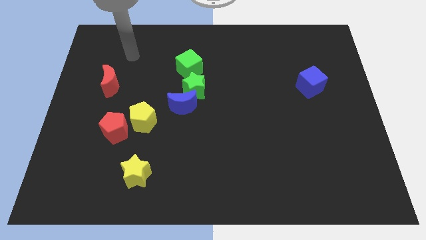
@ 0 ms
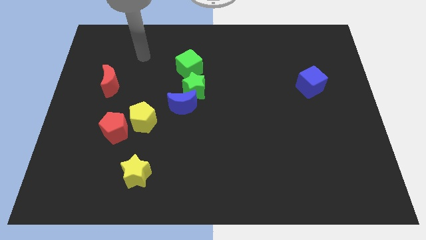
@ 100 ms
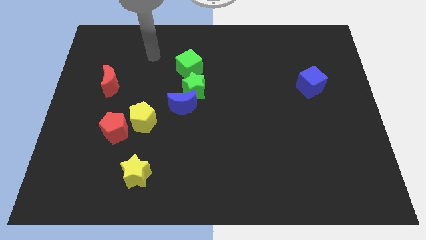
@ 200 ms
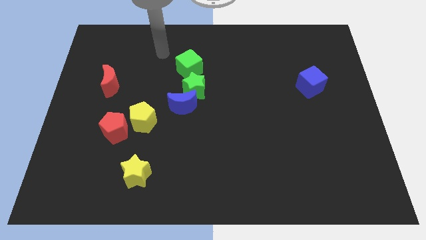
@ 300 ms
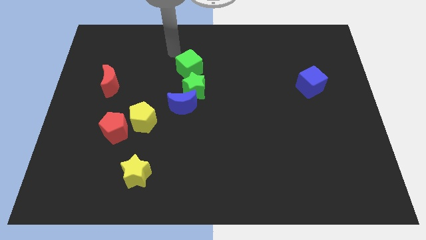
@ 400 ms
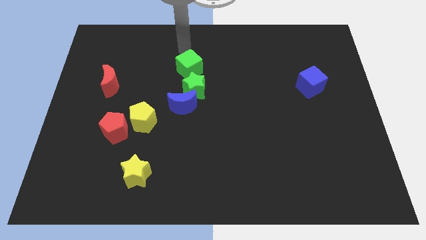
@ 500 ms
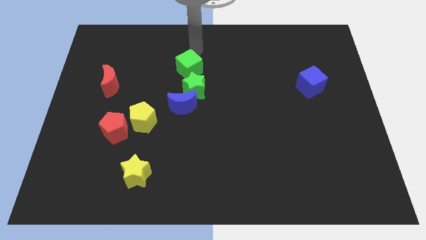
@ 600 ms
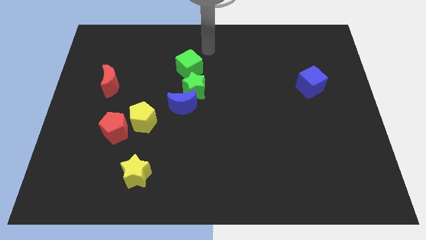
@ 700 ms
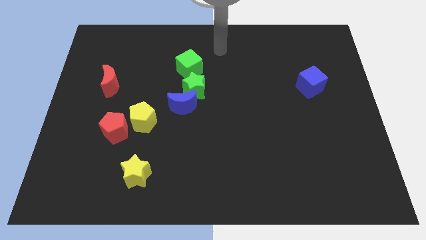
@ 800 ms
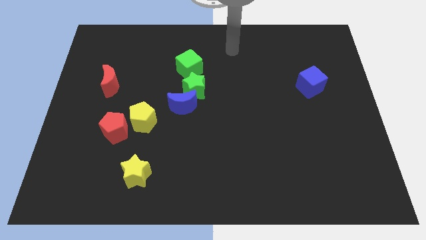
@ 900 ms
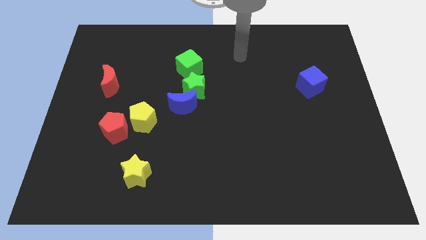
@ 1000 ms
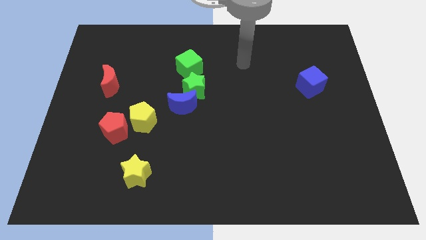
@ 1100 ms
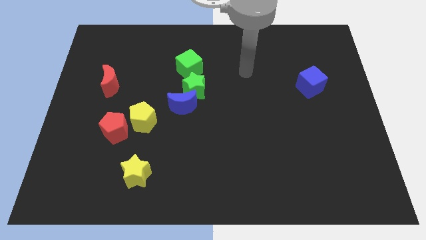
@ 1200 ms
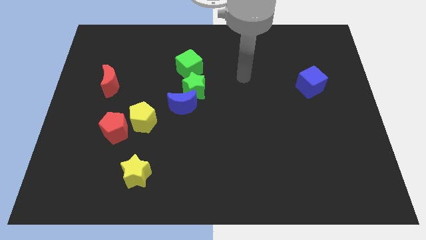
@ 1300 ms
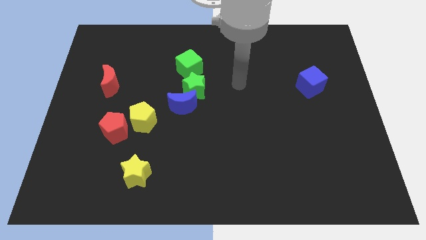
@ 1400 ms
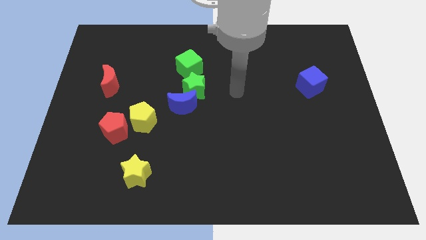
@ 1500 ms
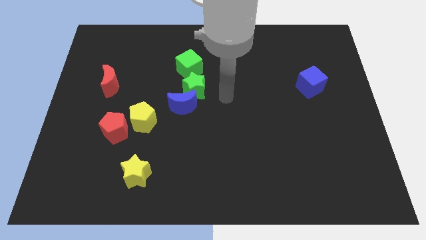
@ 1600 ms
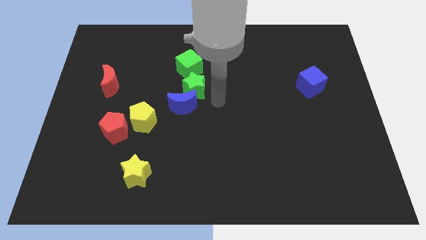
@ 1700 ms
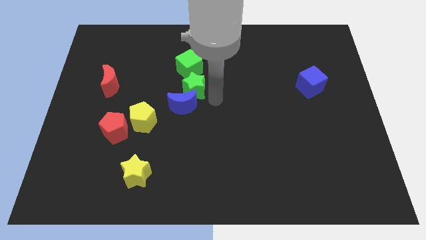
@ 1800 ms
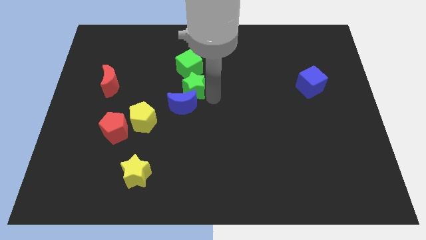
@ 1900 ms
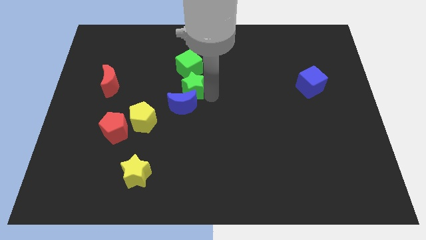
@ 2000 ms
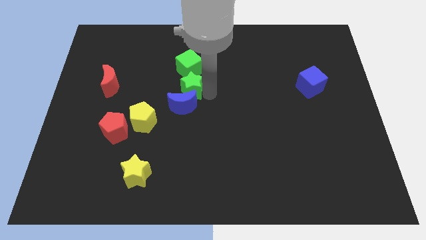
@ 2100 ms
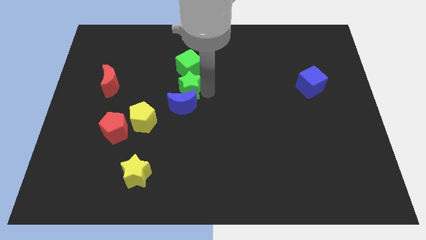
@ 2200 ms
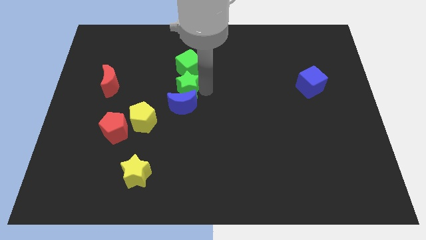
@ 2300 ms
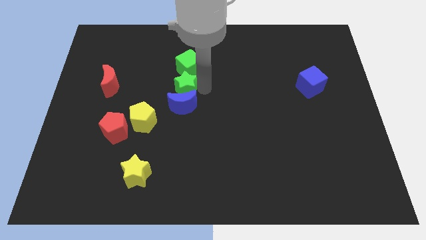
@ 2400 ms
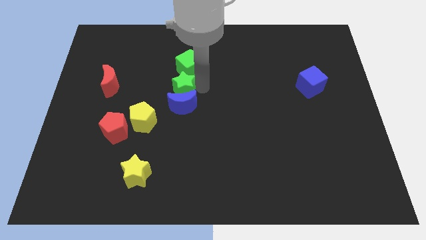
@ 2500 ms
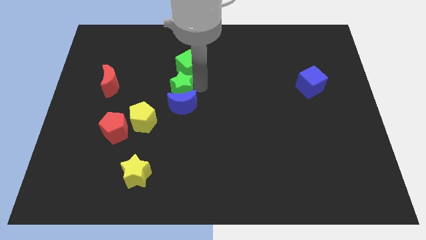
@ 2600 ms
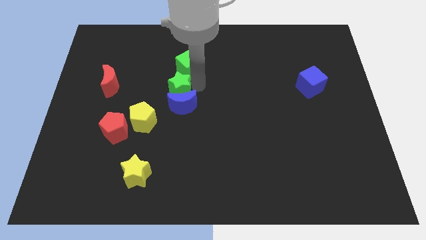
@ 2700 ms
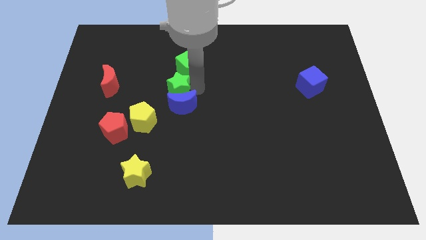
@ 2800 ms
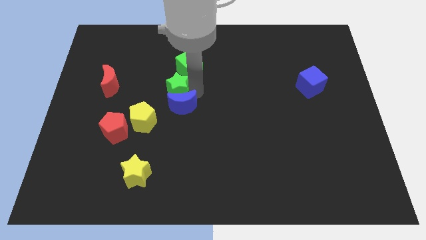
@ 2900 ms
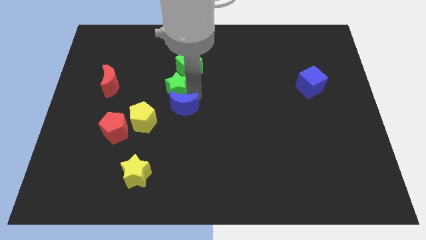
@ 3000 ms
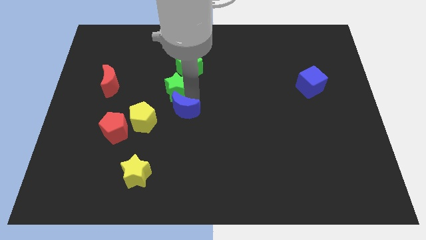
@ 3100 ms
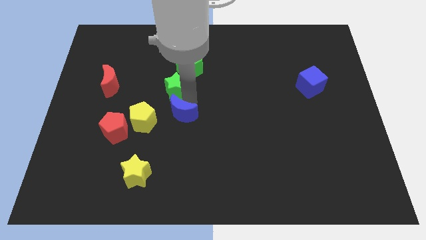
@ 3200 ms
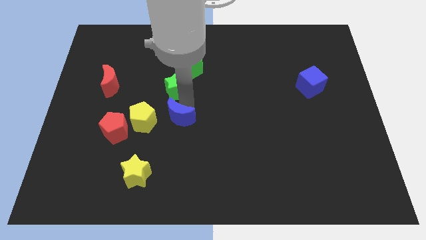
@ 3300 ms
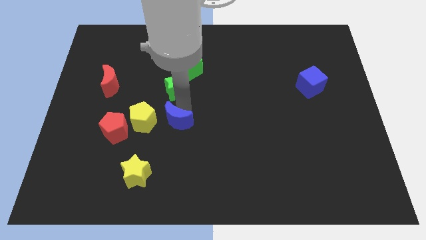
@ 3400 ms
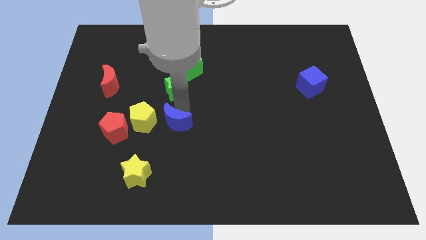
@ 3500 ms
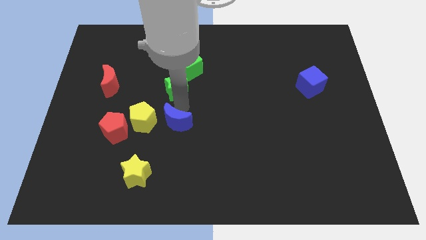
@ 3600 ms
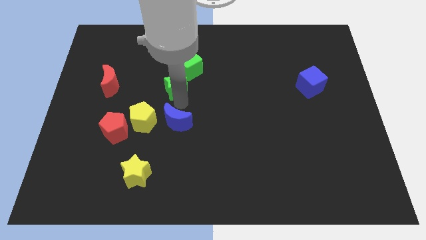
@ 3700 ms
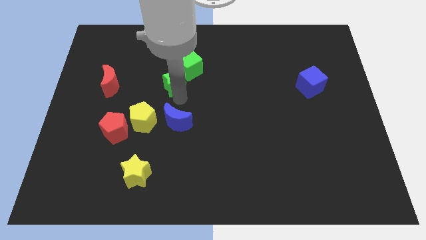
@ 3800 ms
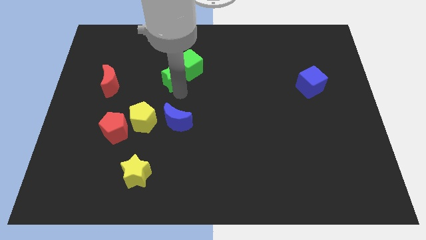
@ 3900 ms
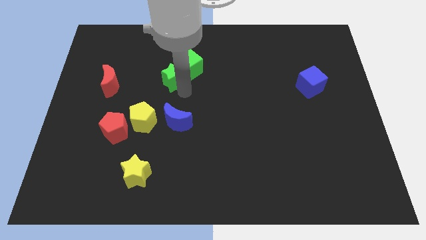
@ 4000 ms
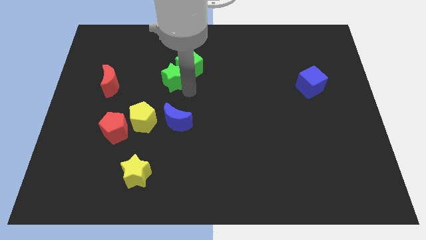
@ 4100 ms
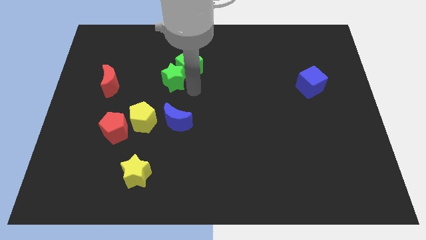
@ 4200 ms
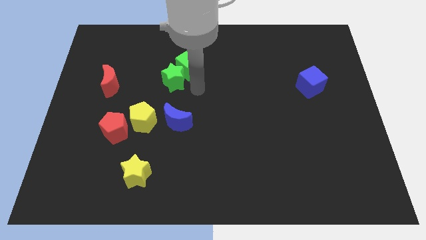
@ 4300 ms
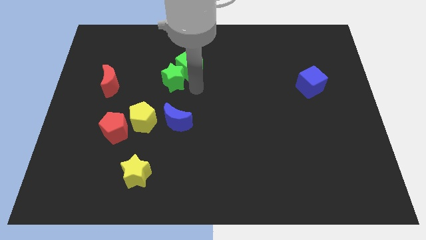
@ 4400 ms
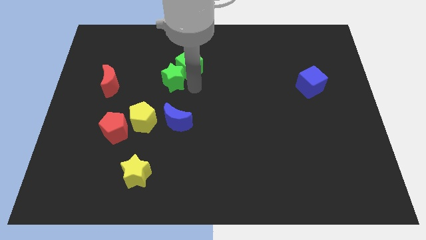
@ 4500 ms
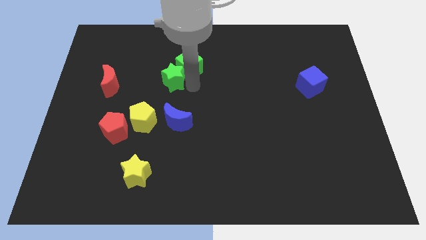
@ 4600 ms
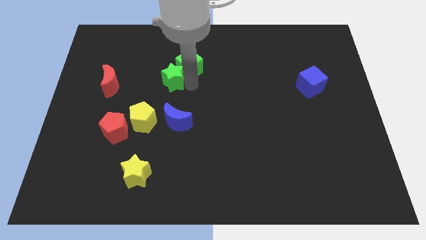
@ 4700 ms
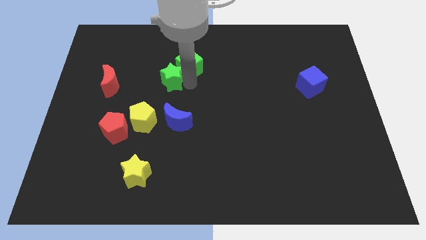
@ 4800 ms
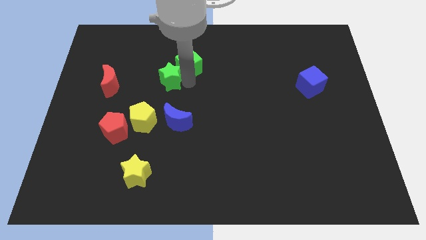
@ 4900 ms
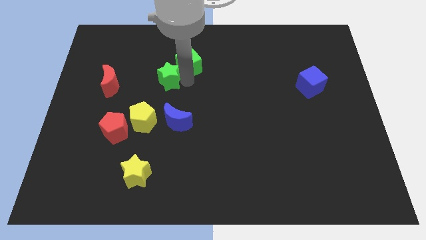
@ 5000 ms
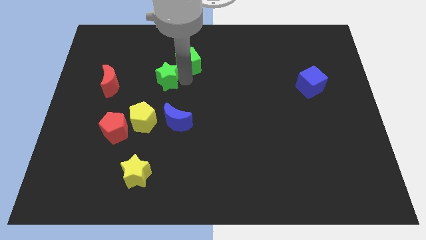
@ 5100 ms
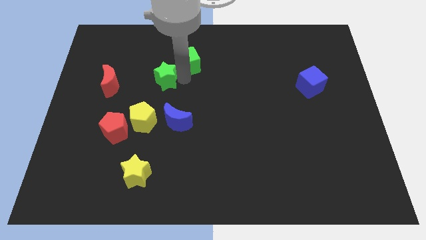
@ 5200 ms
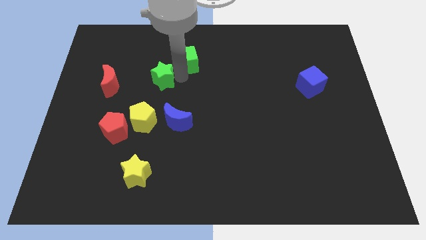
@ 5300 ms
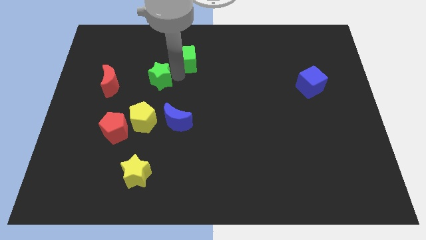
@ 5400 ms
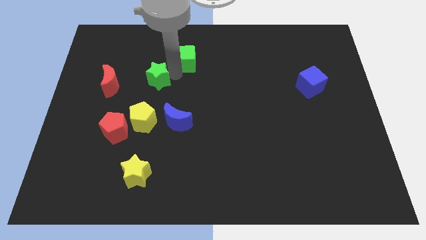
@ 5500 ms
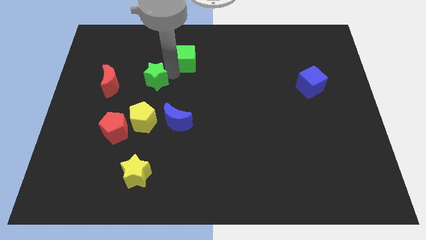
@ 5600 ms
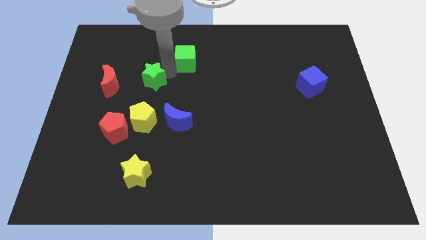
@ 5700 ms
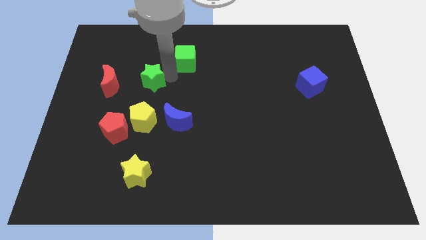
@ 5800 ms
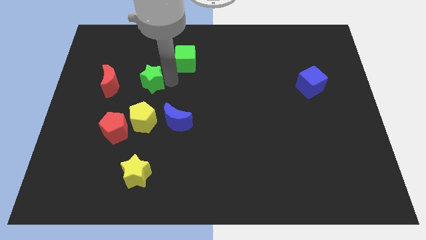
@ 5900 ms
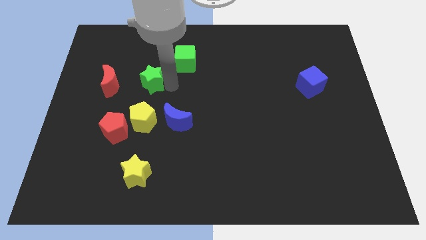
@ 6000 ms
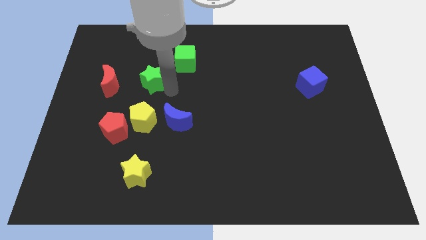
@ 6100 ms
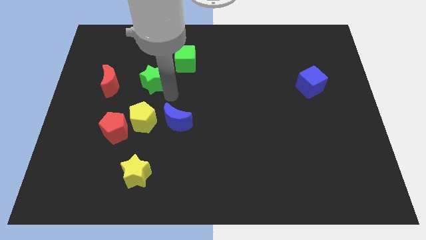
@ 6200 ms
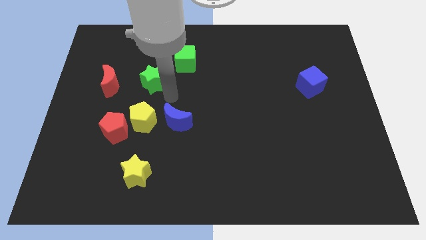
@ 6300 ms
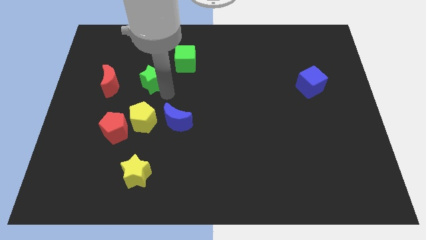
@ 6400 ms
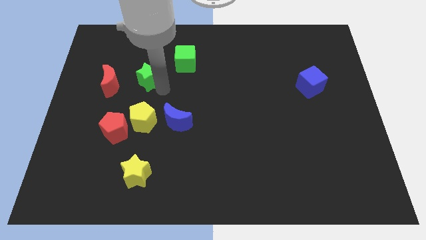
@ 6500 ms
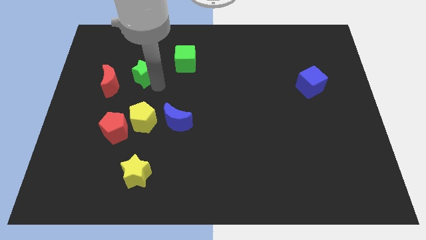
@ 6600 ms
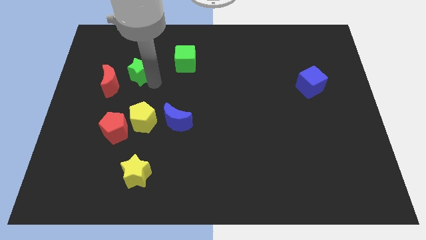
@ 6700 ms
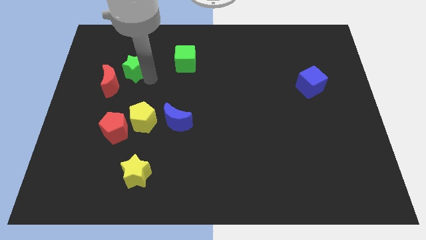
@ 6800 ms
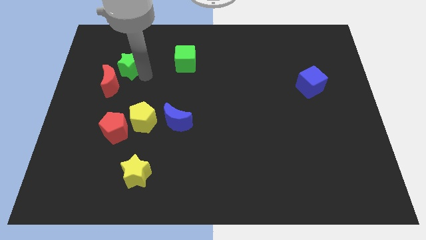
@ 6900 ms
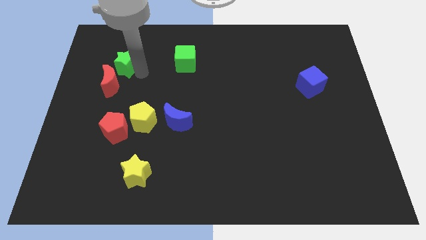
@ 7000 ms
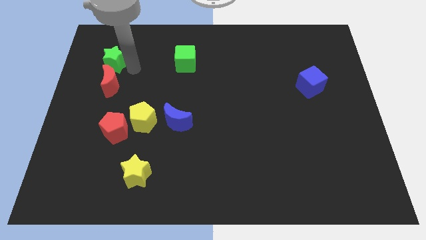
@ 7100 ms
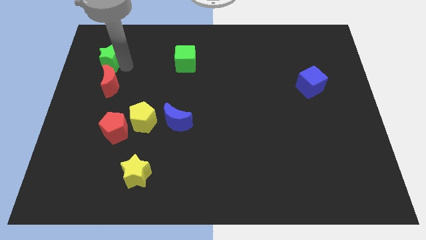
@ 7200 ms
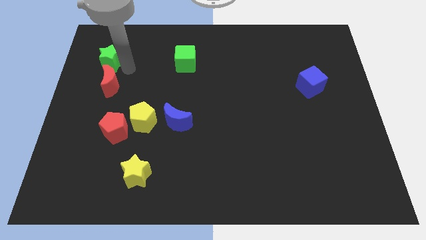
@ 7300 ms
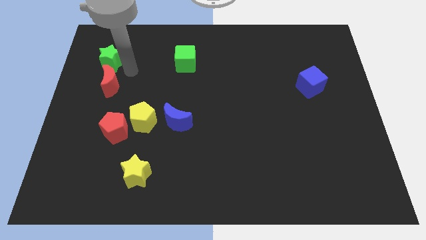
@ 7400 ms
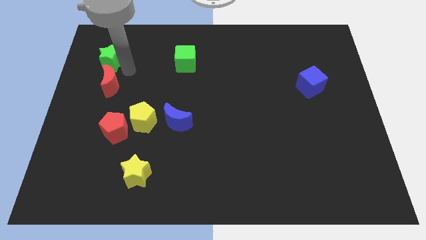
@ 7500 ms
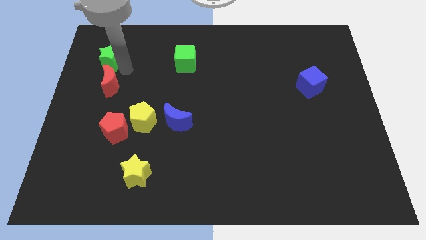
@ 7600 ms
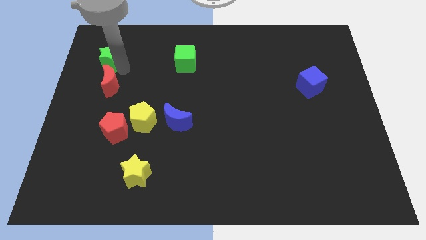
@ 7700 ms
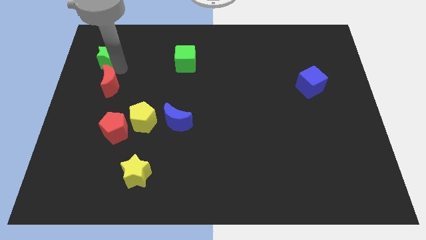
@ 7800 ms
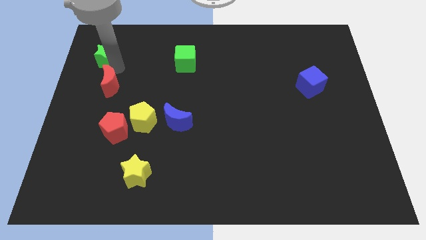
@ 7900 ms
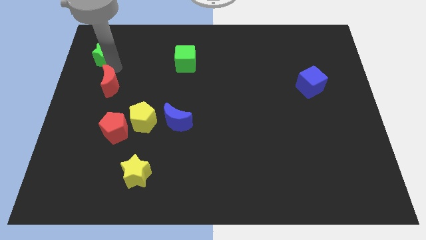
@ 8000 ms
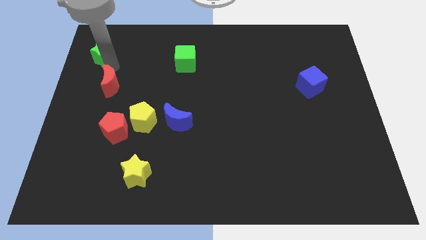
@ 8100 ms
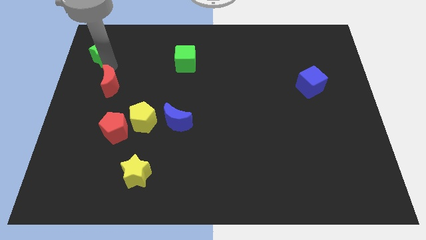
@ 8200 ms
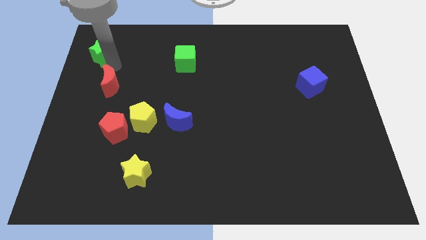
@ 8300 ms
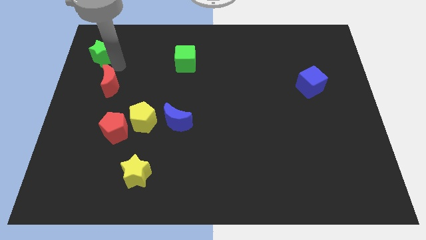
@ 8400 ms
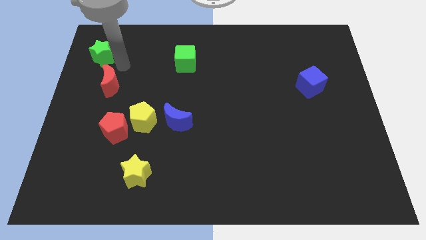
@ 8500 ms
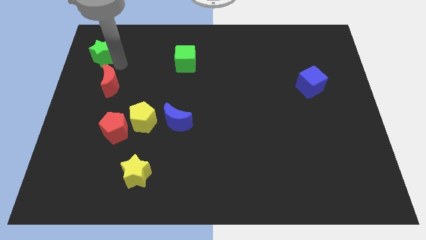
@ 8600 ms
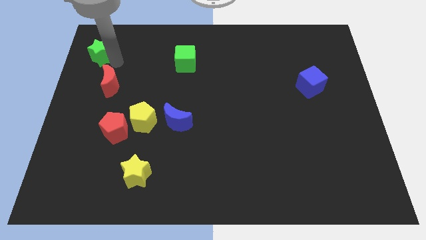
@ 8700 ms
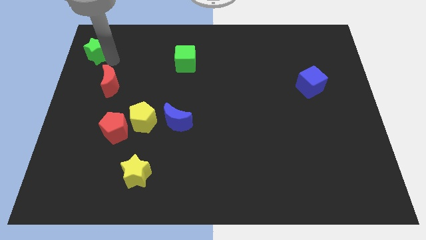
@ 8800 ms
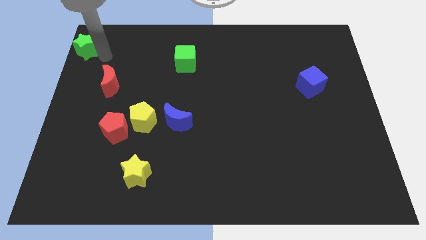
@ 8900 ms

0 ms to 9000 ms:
put the green star to the top left of the board
